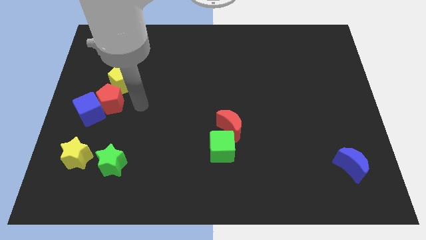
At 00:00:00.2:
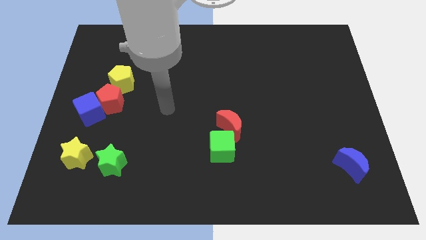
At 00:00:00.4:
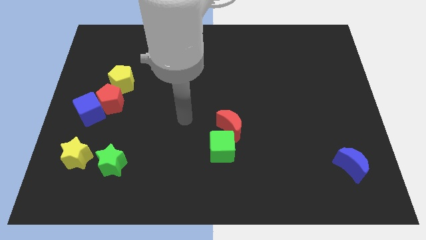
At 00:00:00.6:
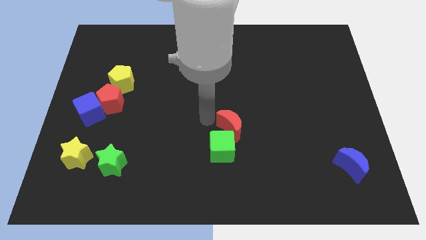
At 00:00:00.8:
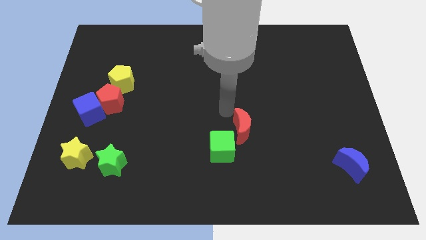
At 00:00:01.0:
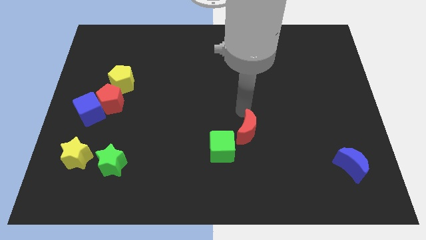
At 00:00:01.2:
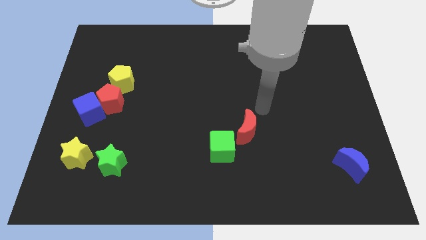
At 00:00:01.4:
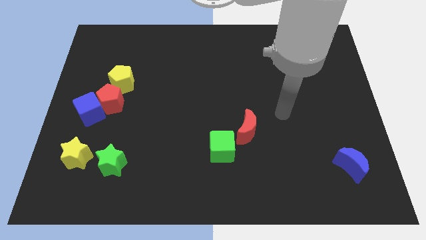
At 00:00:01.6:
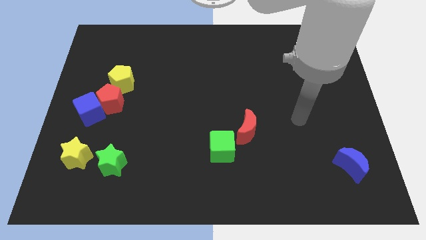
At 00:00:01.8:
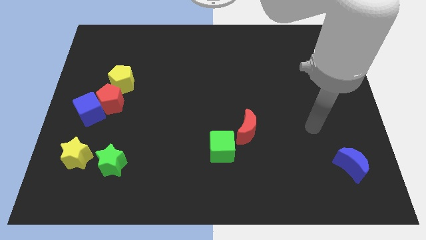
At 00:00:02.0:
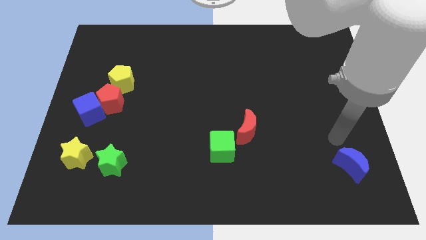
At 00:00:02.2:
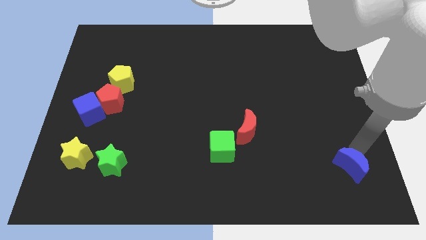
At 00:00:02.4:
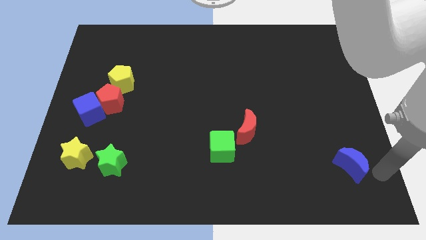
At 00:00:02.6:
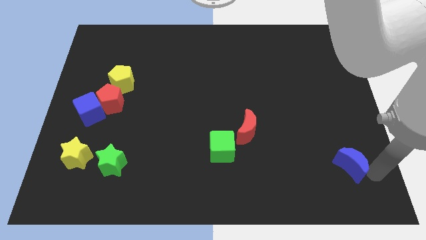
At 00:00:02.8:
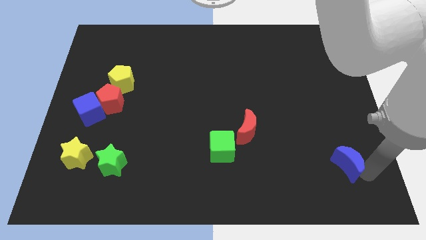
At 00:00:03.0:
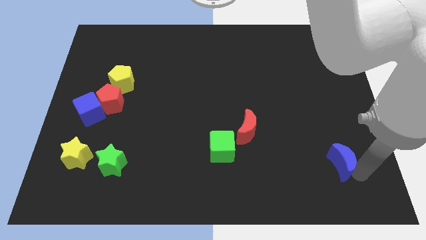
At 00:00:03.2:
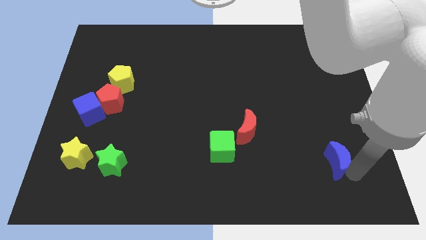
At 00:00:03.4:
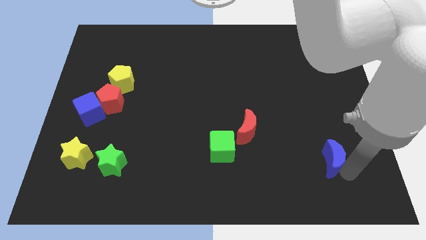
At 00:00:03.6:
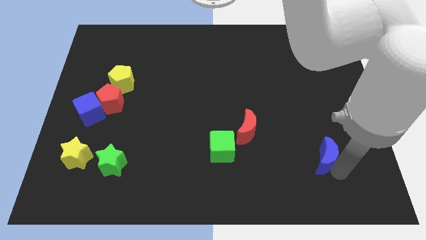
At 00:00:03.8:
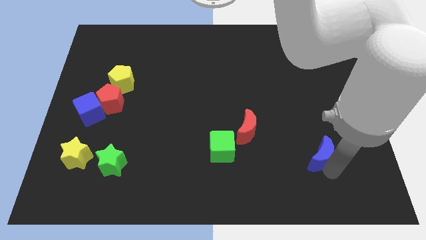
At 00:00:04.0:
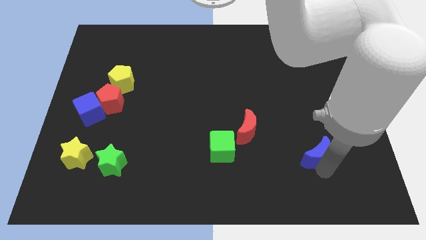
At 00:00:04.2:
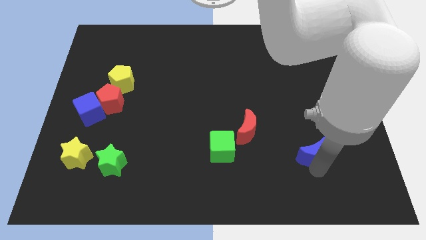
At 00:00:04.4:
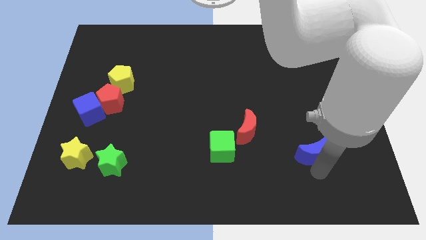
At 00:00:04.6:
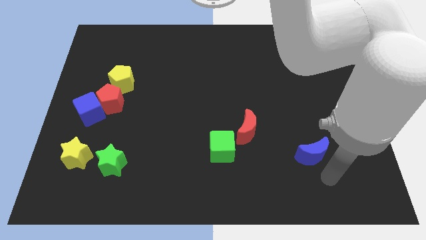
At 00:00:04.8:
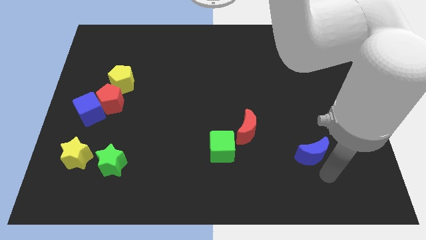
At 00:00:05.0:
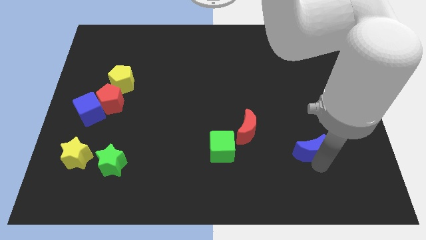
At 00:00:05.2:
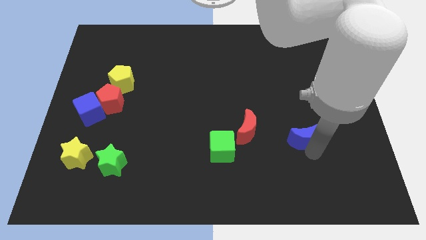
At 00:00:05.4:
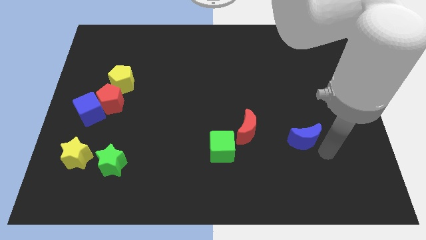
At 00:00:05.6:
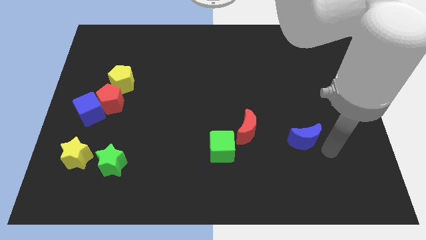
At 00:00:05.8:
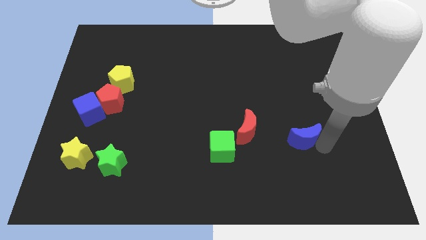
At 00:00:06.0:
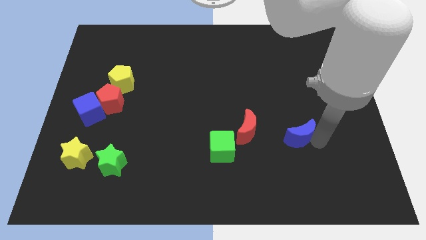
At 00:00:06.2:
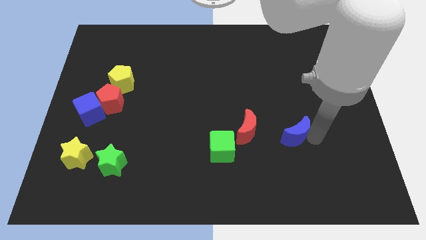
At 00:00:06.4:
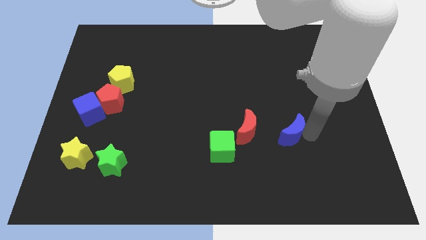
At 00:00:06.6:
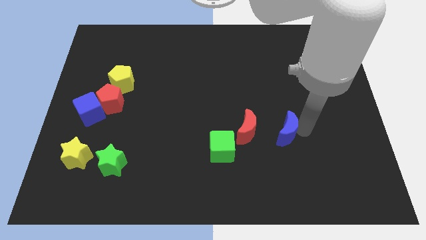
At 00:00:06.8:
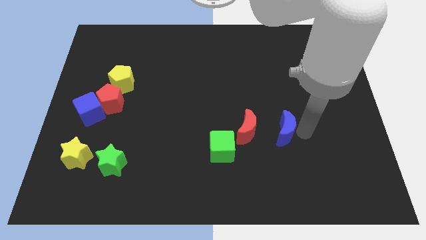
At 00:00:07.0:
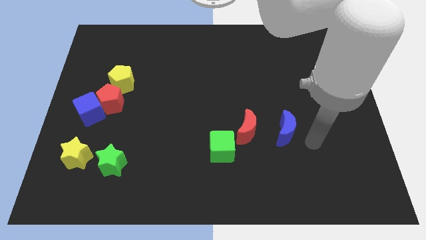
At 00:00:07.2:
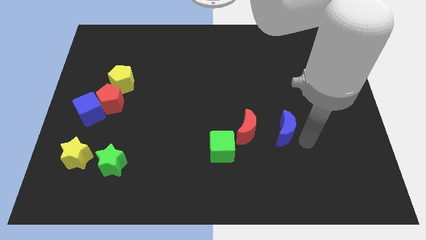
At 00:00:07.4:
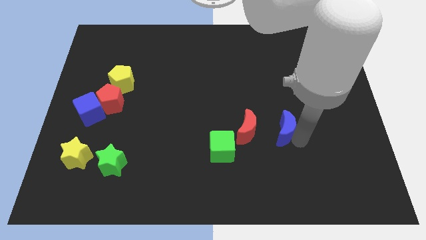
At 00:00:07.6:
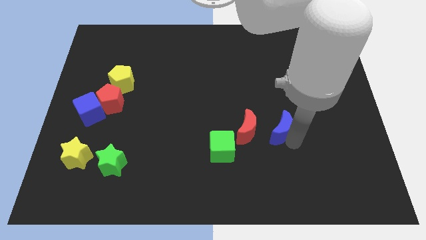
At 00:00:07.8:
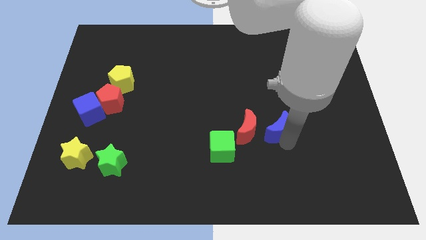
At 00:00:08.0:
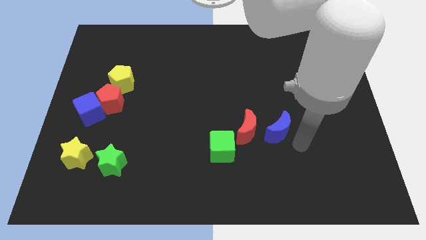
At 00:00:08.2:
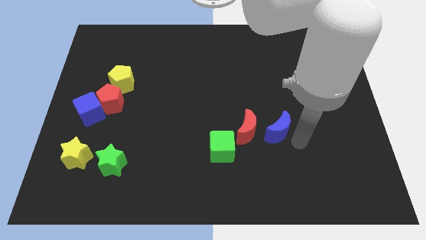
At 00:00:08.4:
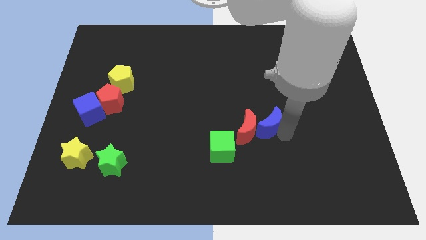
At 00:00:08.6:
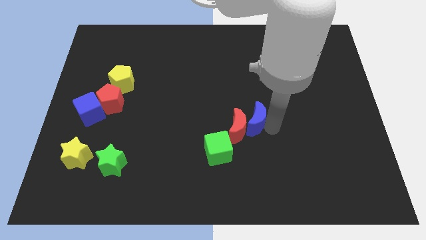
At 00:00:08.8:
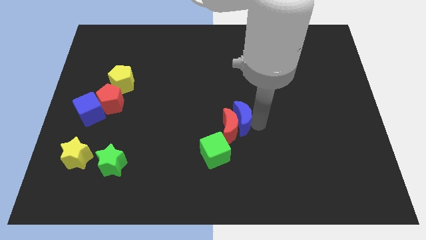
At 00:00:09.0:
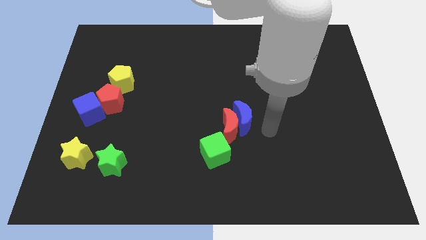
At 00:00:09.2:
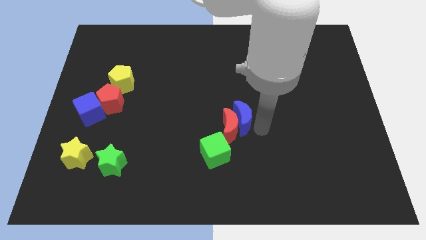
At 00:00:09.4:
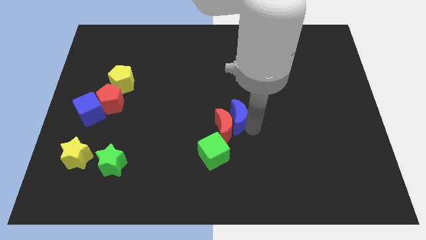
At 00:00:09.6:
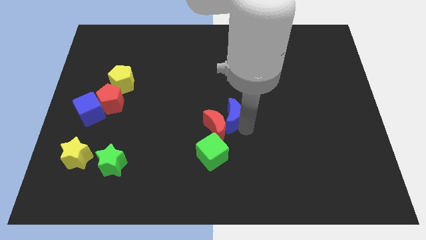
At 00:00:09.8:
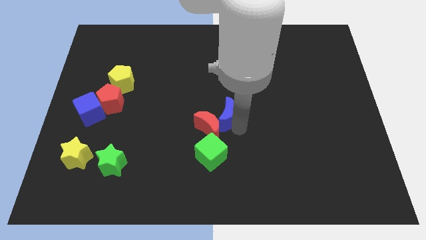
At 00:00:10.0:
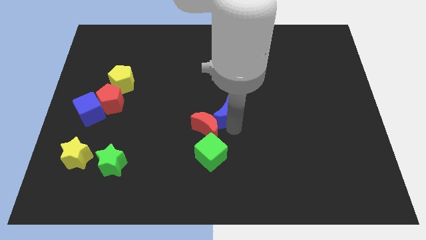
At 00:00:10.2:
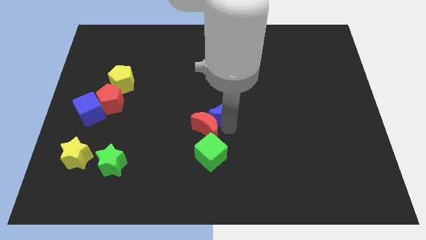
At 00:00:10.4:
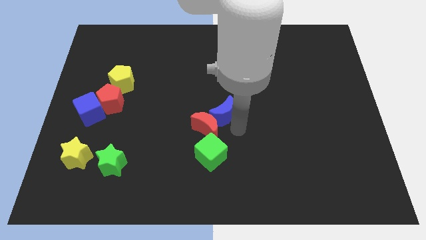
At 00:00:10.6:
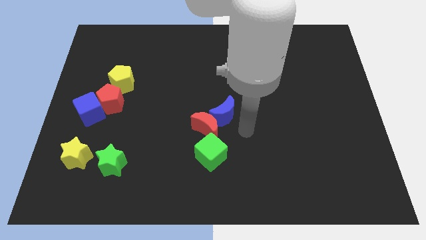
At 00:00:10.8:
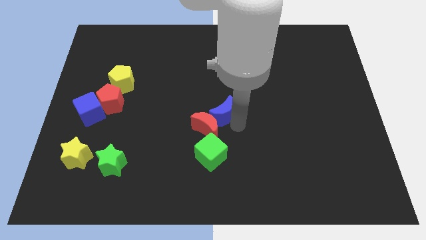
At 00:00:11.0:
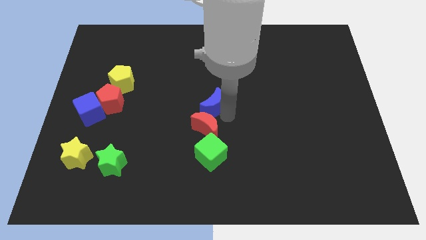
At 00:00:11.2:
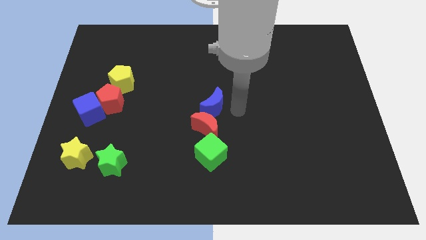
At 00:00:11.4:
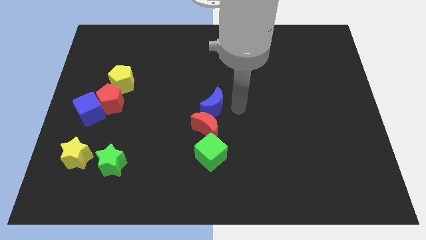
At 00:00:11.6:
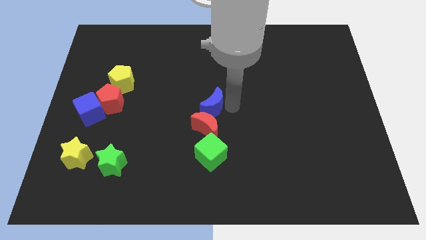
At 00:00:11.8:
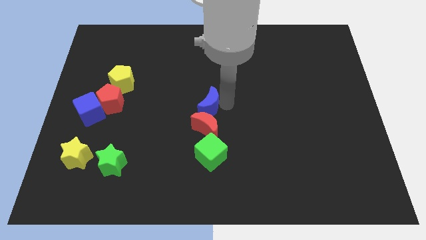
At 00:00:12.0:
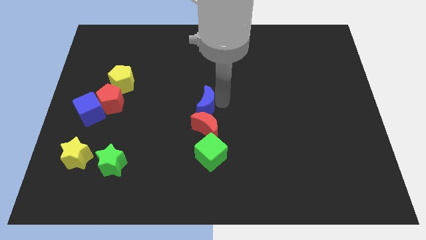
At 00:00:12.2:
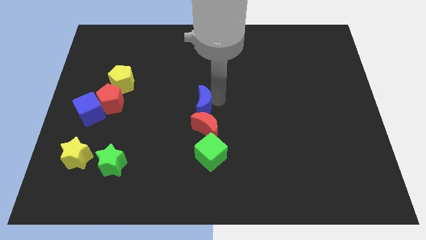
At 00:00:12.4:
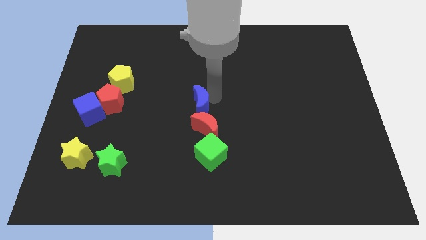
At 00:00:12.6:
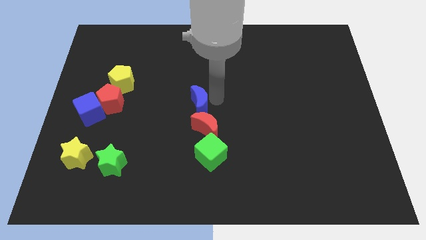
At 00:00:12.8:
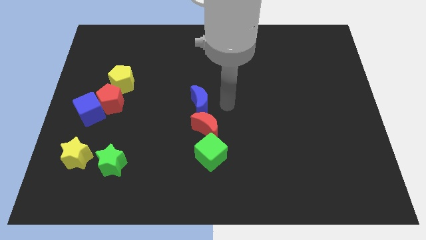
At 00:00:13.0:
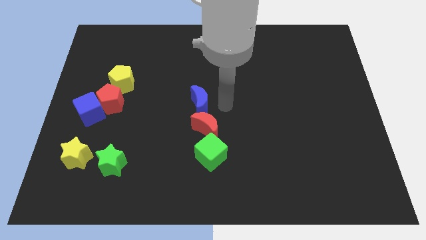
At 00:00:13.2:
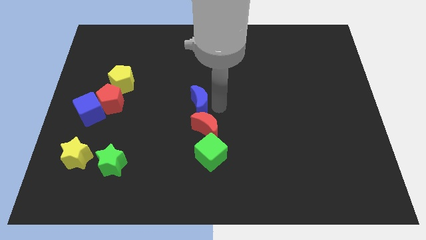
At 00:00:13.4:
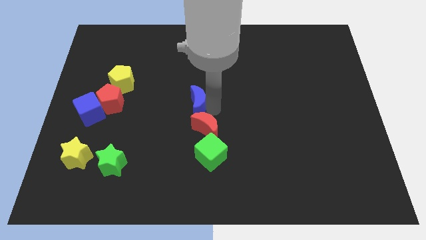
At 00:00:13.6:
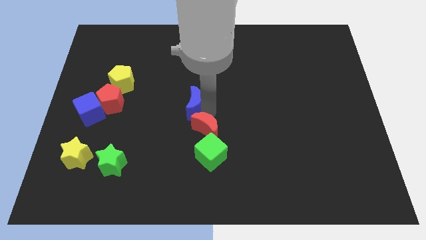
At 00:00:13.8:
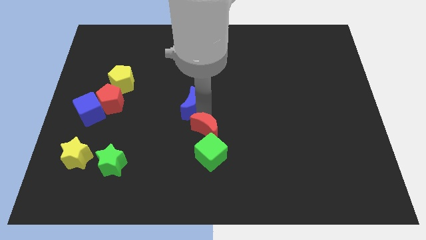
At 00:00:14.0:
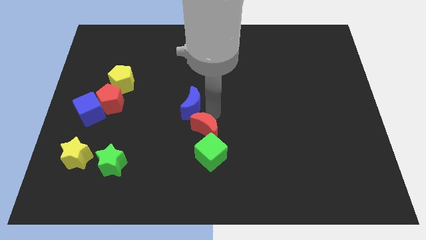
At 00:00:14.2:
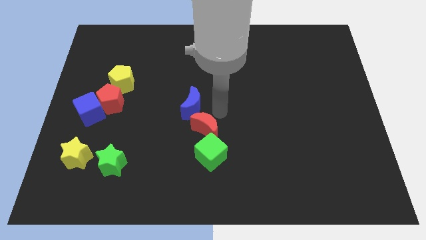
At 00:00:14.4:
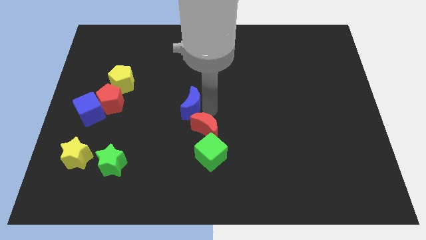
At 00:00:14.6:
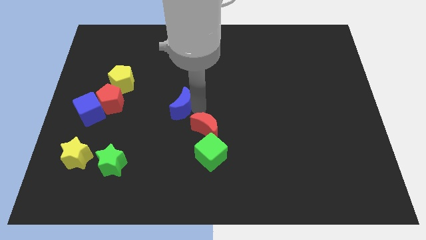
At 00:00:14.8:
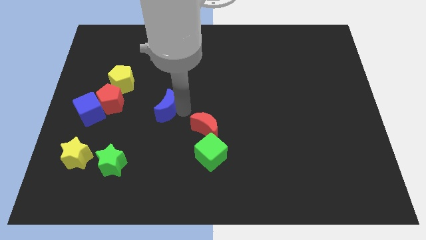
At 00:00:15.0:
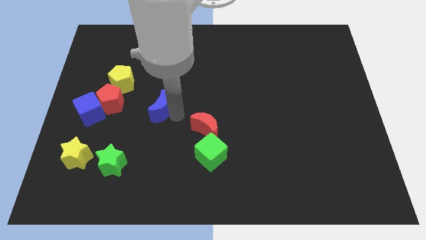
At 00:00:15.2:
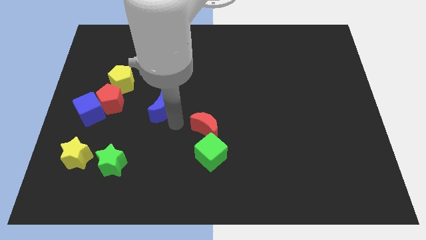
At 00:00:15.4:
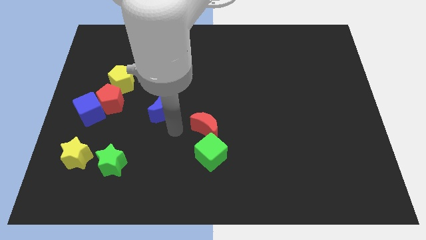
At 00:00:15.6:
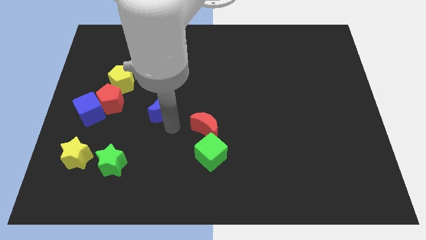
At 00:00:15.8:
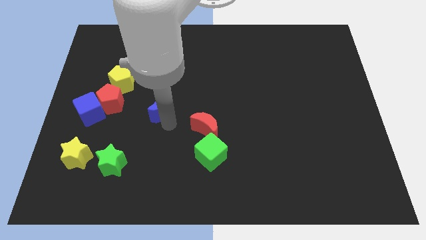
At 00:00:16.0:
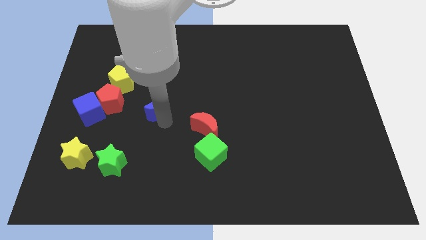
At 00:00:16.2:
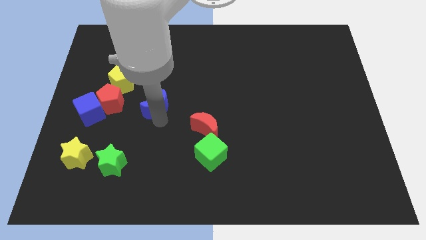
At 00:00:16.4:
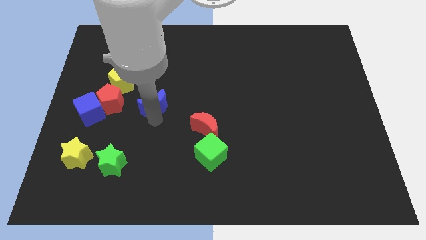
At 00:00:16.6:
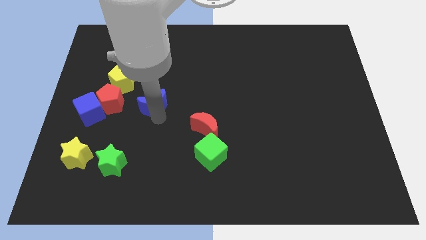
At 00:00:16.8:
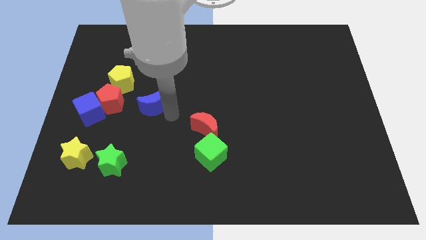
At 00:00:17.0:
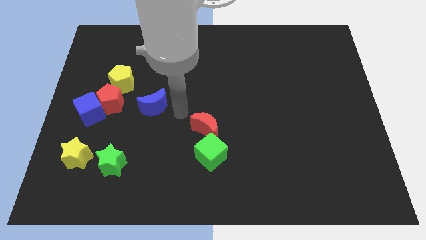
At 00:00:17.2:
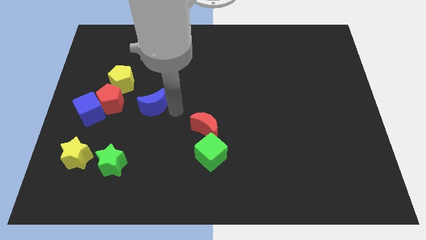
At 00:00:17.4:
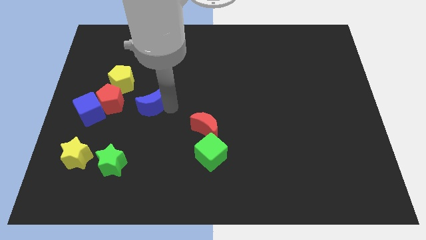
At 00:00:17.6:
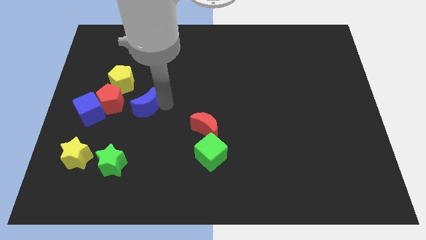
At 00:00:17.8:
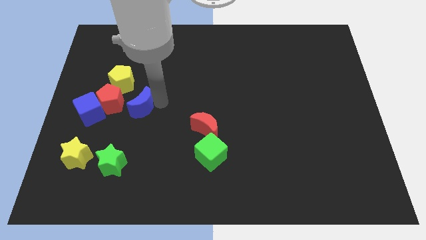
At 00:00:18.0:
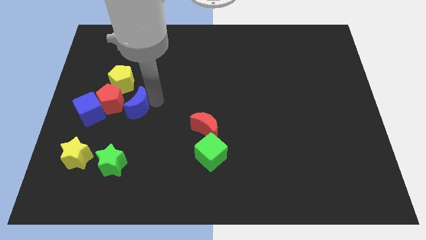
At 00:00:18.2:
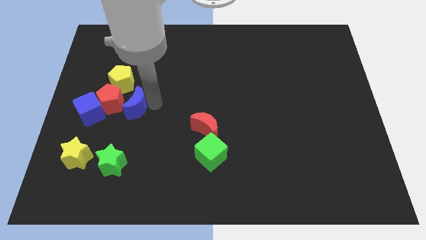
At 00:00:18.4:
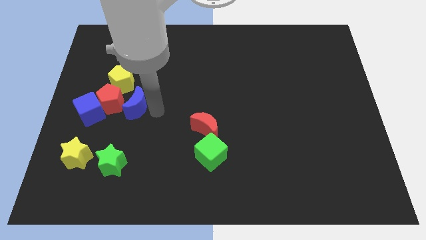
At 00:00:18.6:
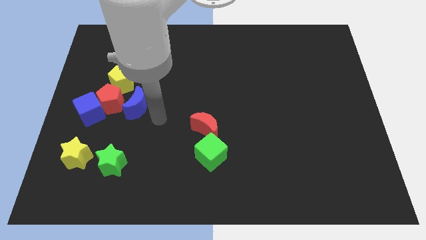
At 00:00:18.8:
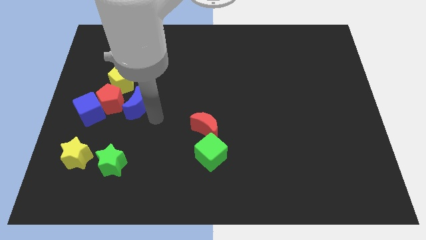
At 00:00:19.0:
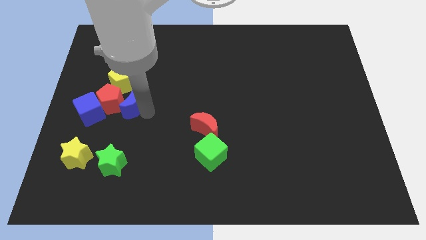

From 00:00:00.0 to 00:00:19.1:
push the blue moon close to the red pentagon
